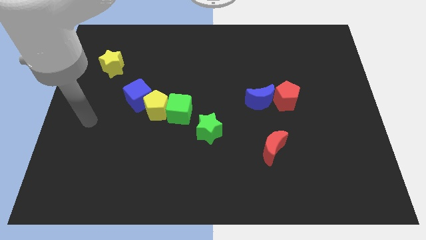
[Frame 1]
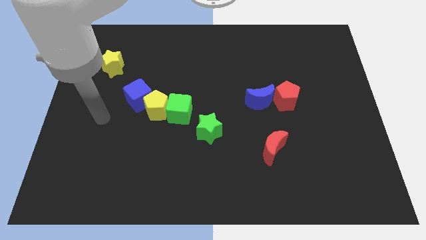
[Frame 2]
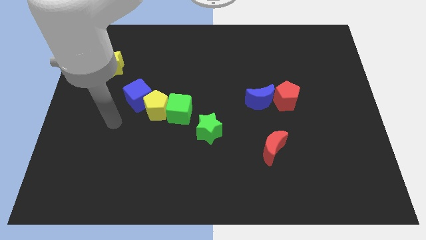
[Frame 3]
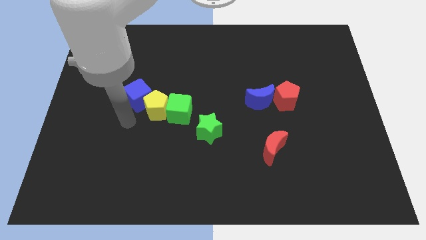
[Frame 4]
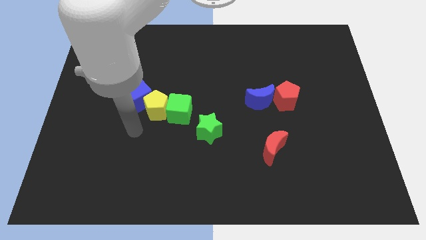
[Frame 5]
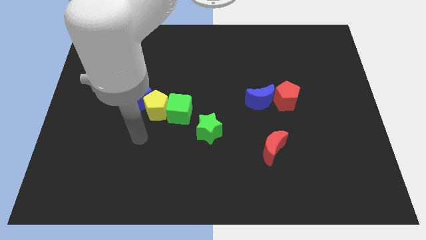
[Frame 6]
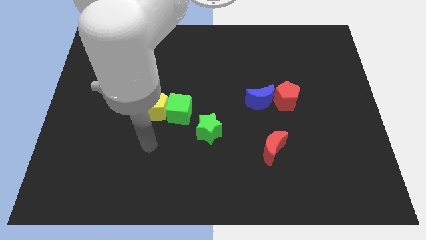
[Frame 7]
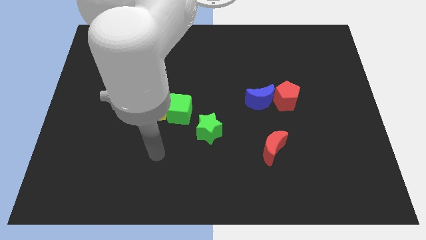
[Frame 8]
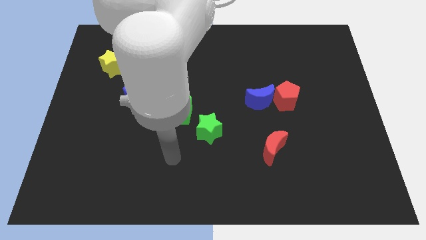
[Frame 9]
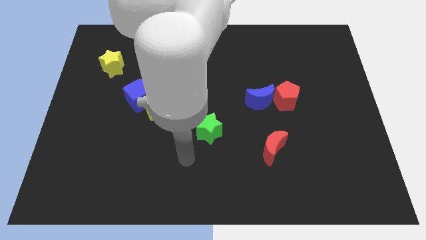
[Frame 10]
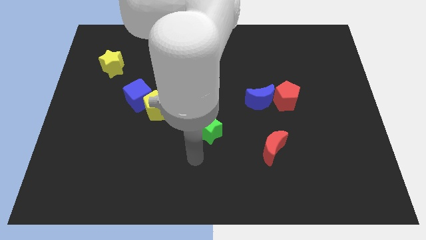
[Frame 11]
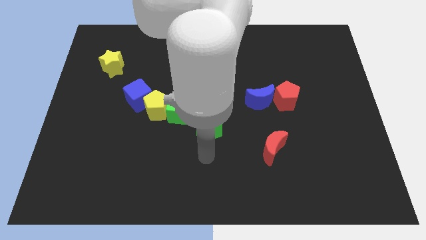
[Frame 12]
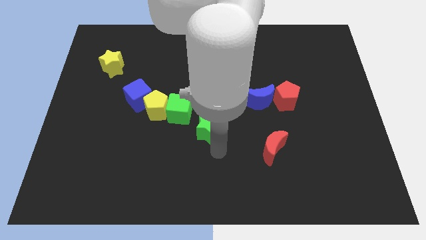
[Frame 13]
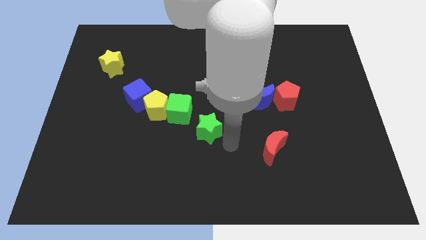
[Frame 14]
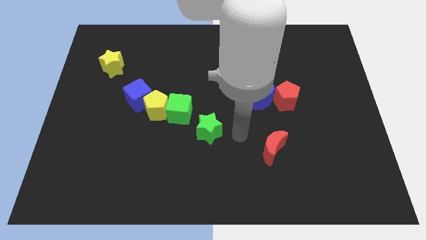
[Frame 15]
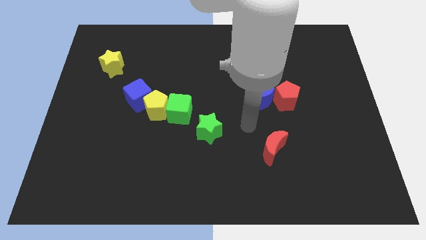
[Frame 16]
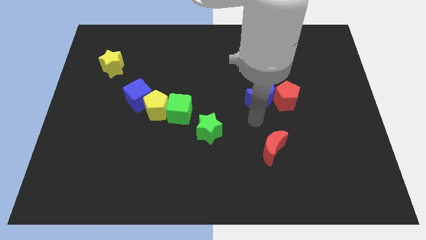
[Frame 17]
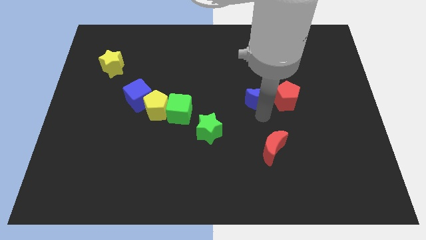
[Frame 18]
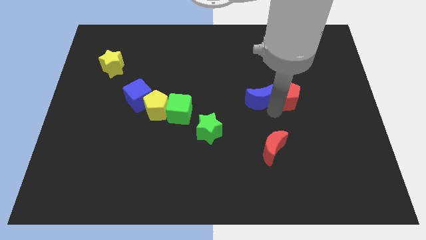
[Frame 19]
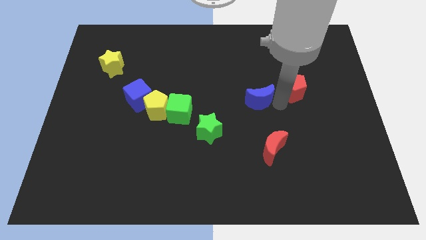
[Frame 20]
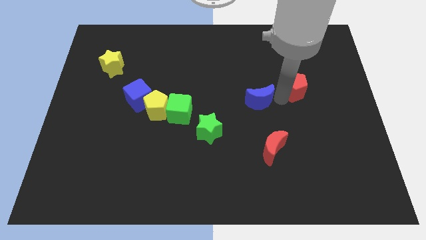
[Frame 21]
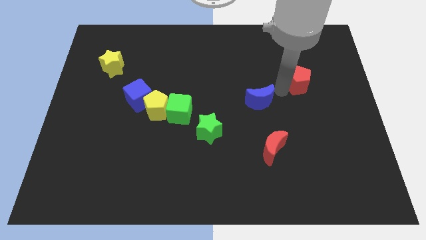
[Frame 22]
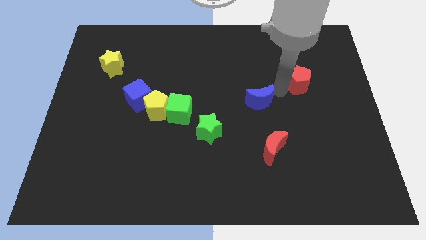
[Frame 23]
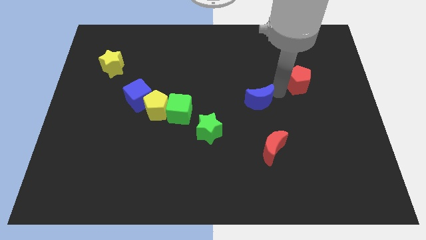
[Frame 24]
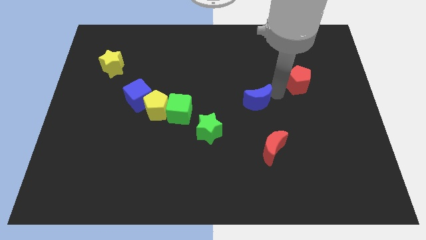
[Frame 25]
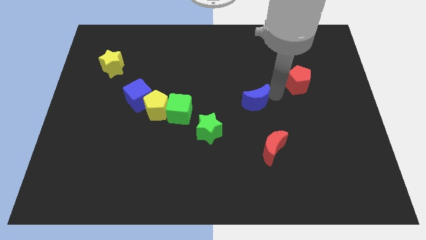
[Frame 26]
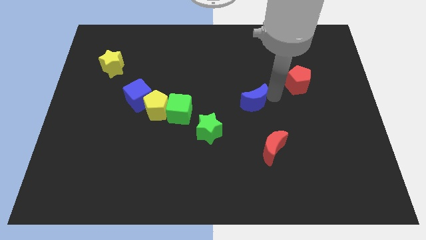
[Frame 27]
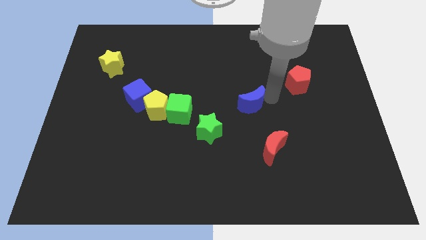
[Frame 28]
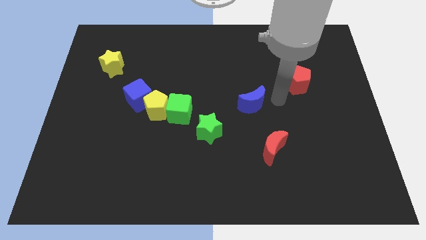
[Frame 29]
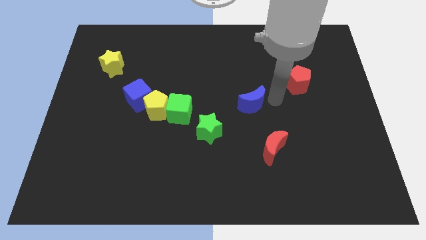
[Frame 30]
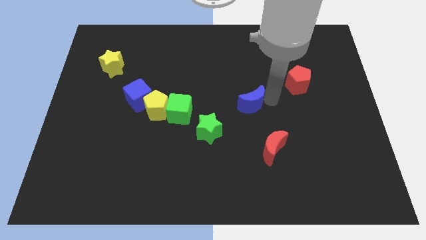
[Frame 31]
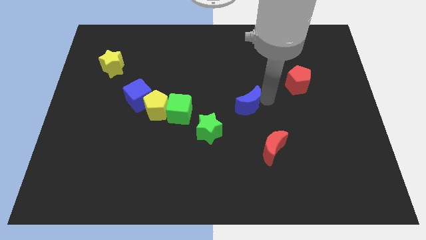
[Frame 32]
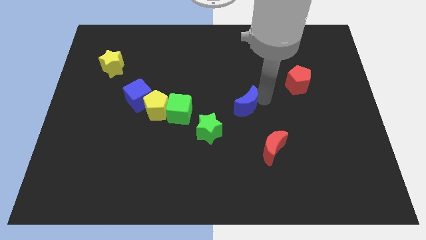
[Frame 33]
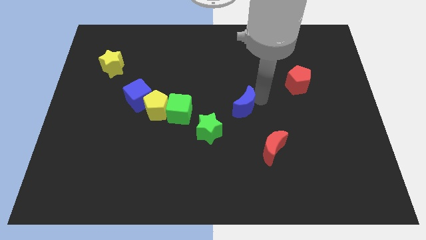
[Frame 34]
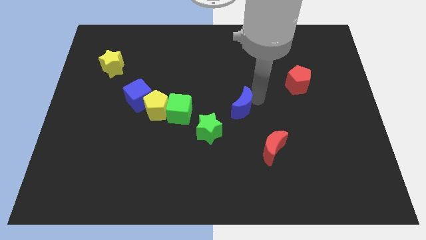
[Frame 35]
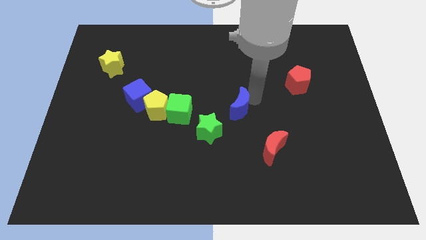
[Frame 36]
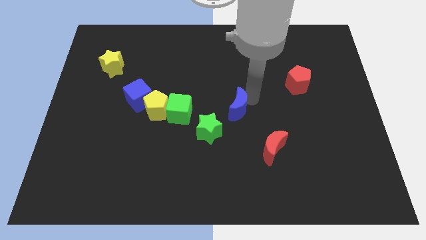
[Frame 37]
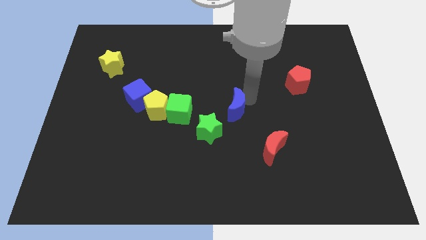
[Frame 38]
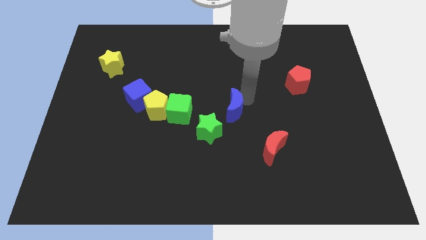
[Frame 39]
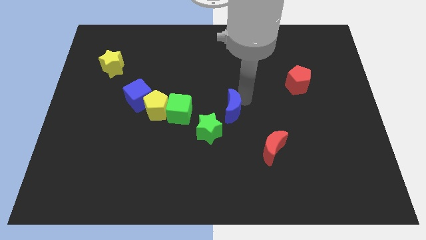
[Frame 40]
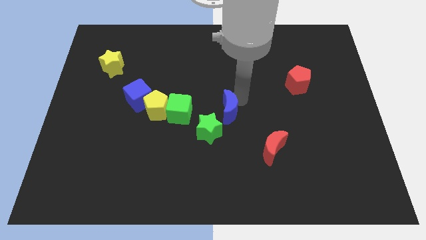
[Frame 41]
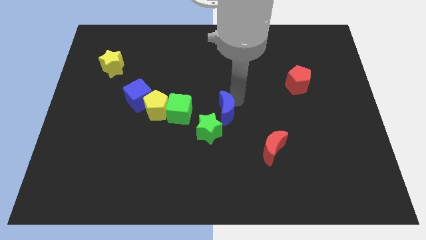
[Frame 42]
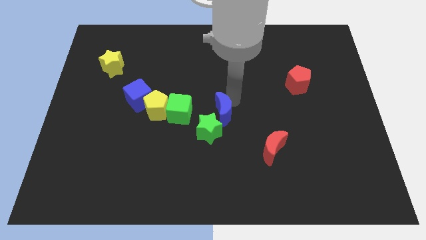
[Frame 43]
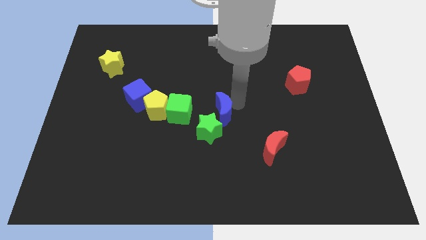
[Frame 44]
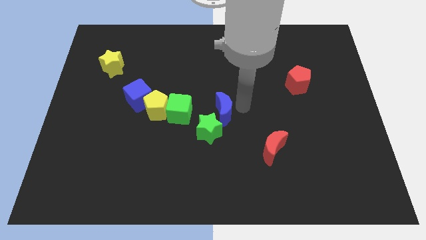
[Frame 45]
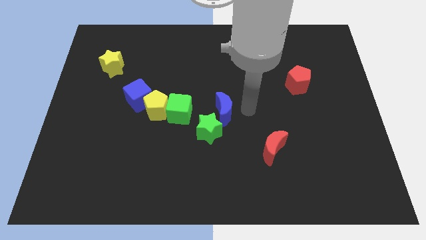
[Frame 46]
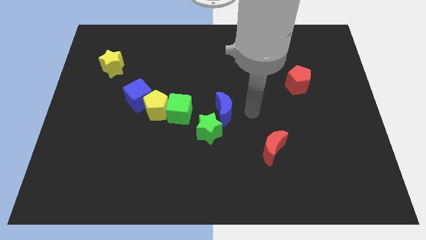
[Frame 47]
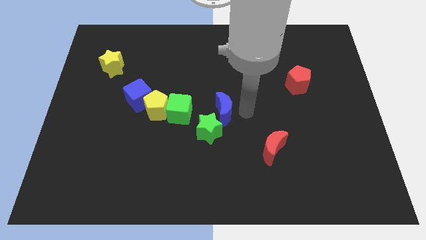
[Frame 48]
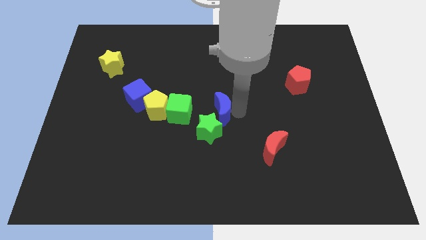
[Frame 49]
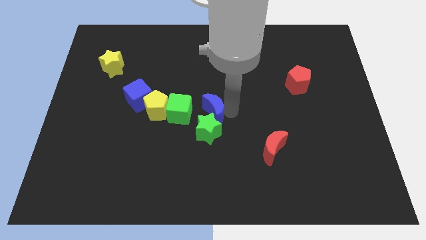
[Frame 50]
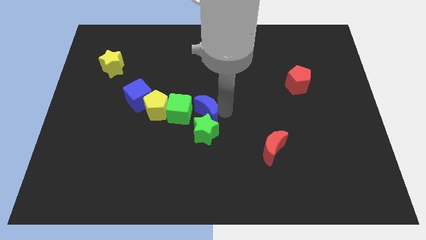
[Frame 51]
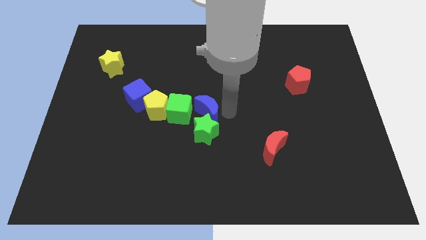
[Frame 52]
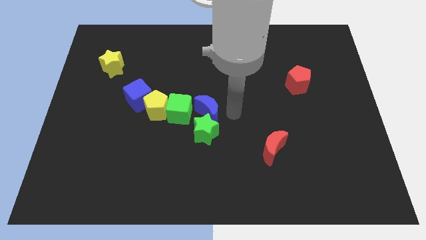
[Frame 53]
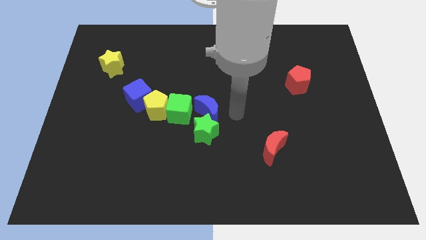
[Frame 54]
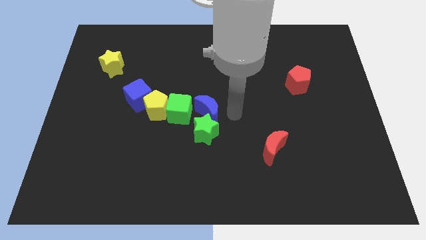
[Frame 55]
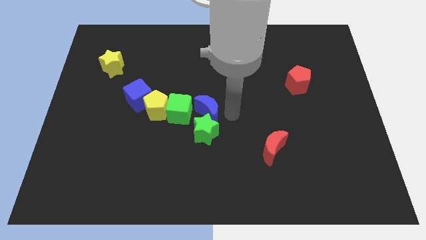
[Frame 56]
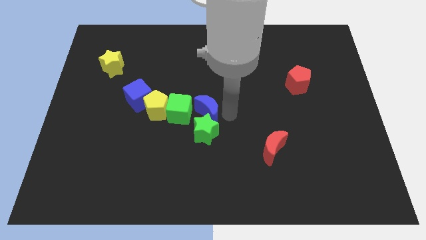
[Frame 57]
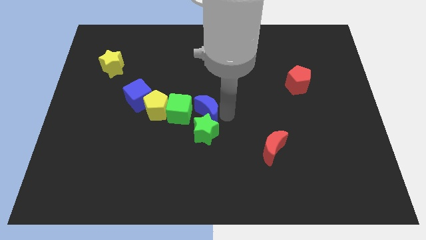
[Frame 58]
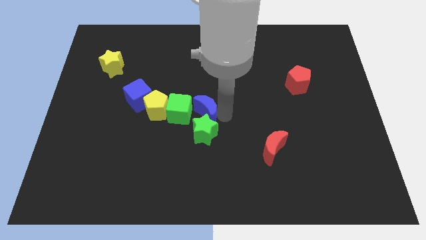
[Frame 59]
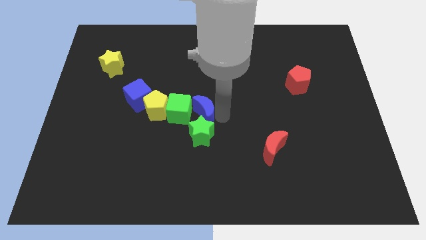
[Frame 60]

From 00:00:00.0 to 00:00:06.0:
put the blue moon to the green cube
